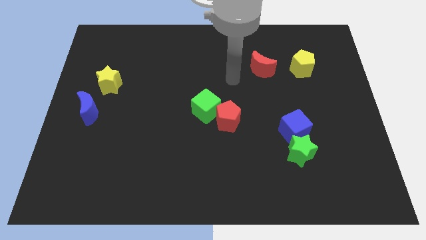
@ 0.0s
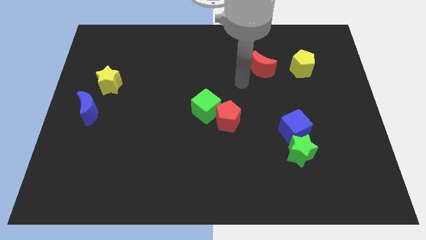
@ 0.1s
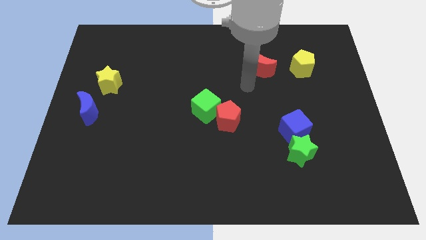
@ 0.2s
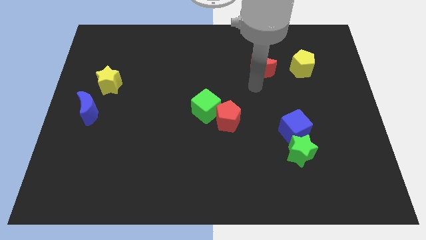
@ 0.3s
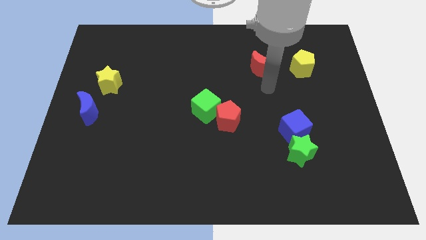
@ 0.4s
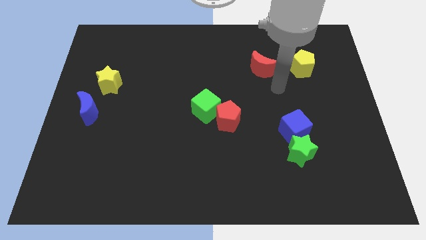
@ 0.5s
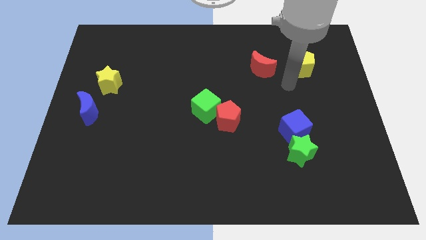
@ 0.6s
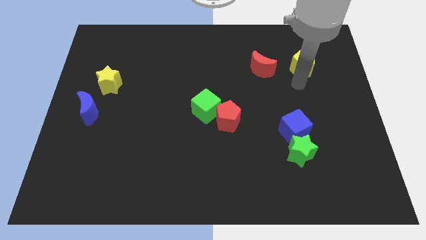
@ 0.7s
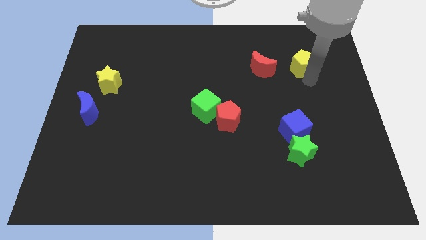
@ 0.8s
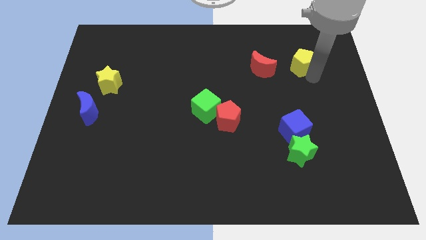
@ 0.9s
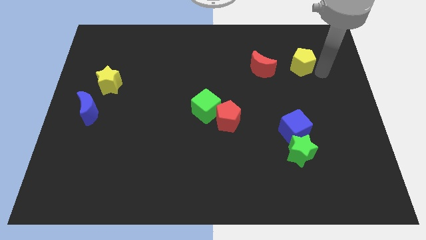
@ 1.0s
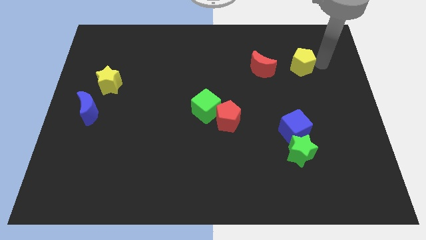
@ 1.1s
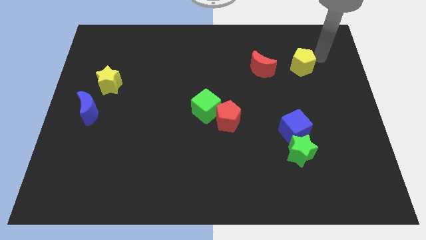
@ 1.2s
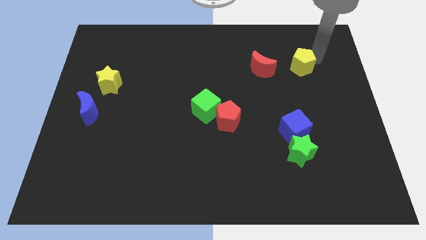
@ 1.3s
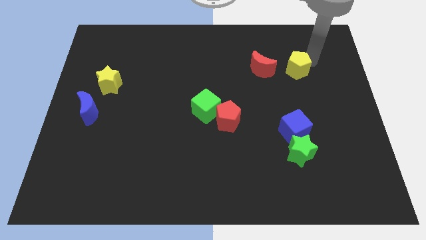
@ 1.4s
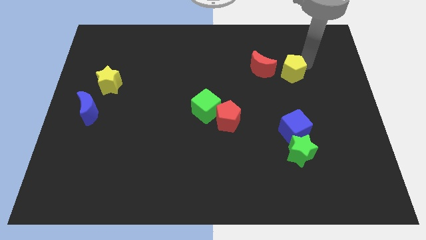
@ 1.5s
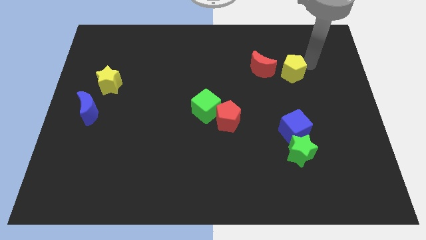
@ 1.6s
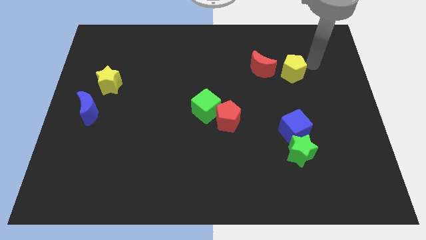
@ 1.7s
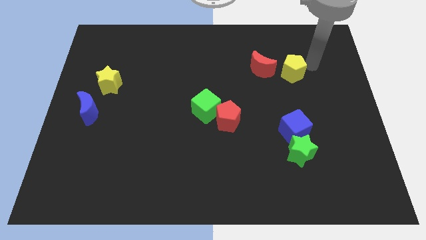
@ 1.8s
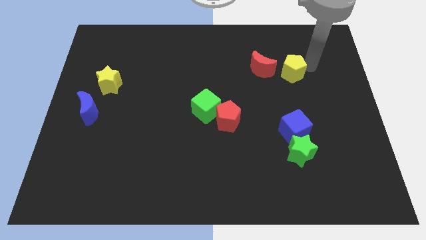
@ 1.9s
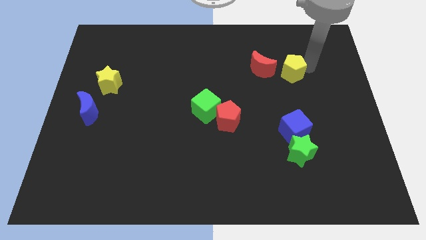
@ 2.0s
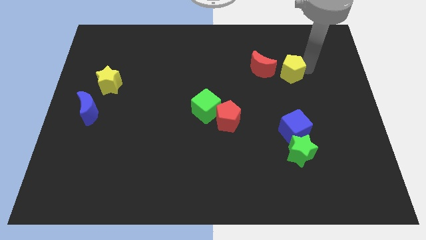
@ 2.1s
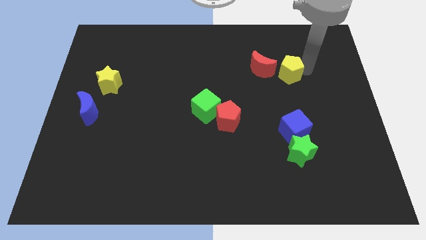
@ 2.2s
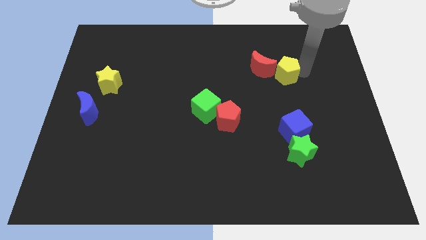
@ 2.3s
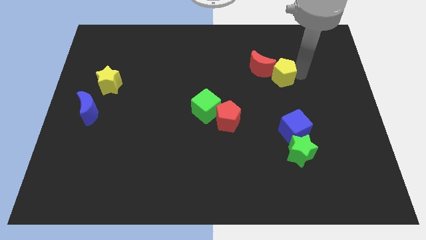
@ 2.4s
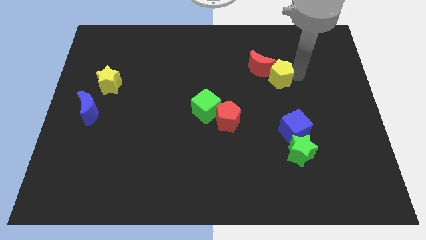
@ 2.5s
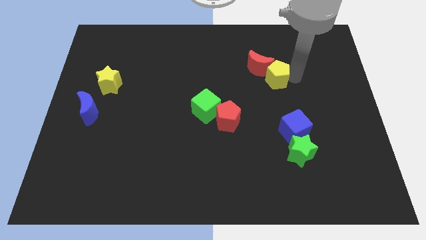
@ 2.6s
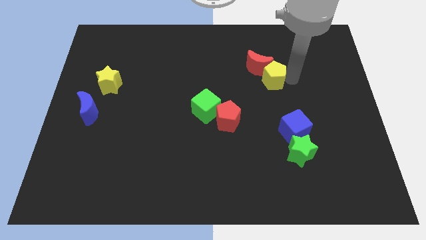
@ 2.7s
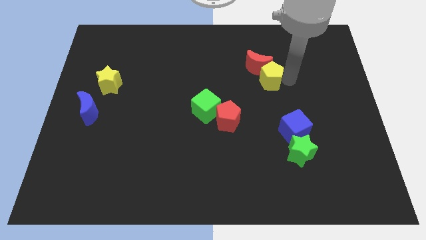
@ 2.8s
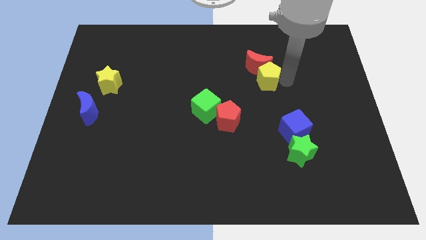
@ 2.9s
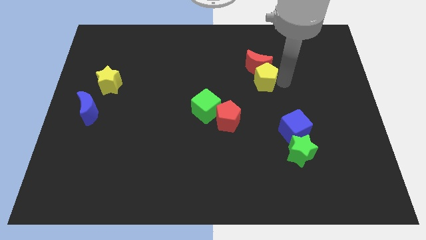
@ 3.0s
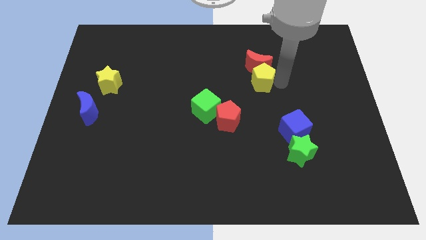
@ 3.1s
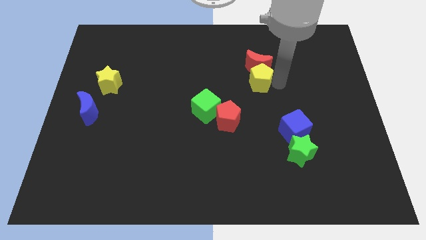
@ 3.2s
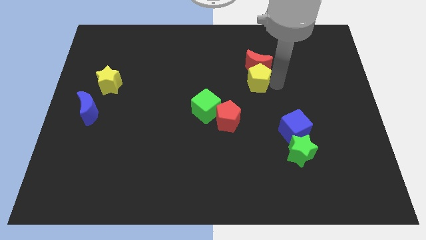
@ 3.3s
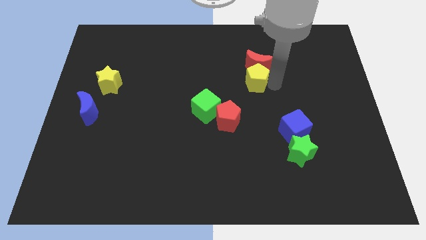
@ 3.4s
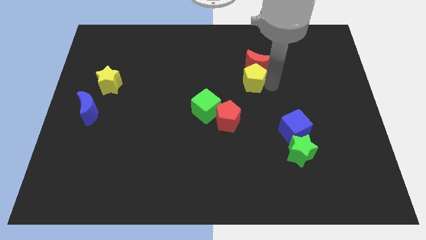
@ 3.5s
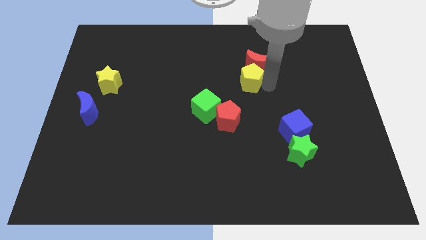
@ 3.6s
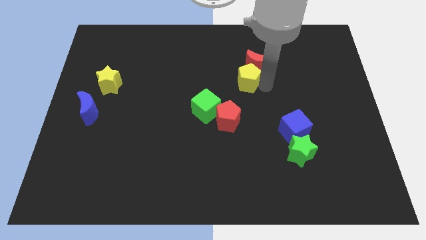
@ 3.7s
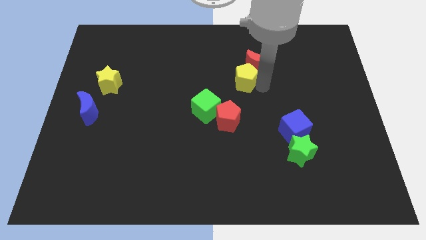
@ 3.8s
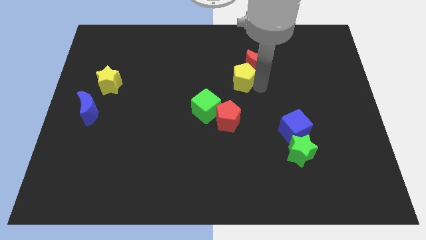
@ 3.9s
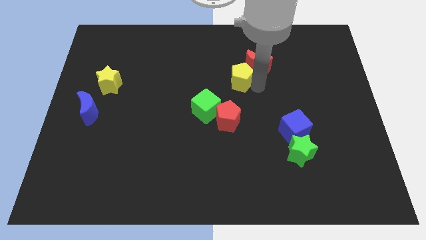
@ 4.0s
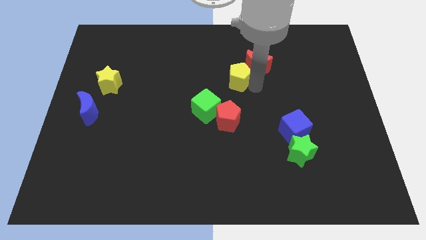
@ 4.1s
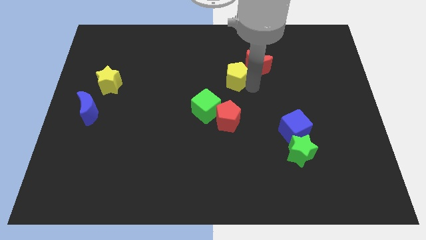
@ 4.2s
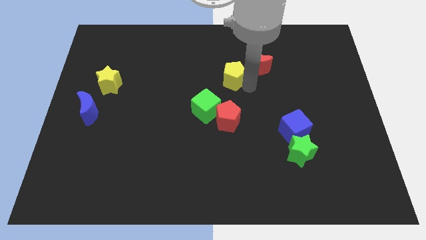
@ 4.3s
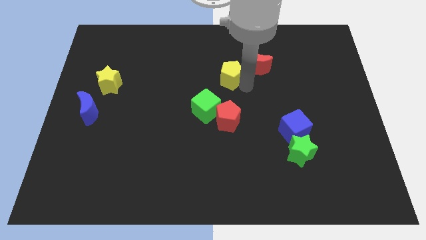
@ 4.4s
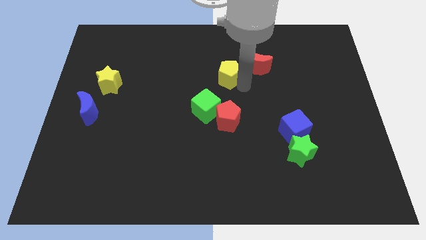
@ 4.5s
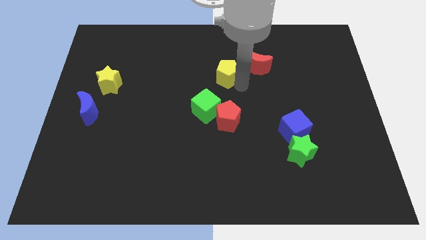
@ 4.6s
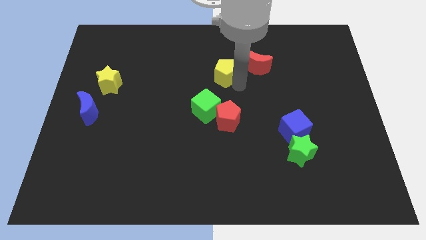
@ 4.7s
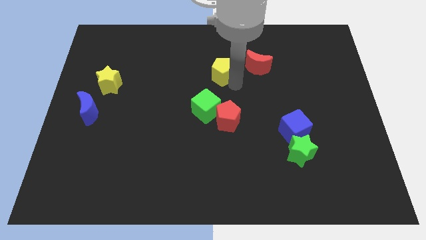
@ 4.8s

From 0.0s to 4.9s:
move the yellow pentagon to the left

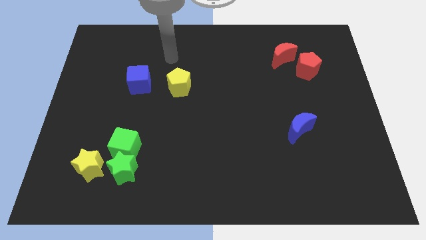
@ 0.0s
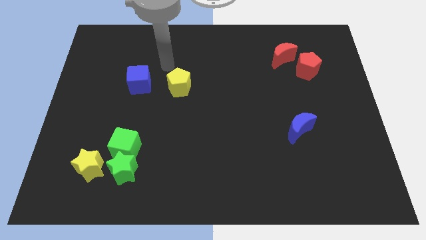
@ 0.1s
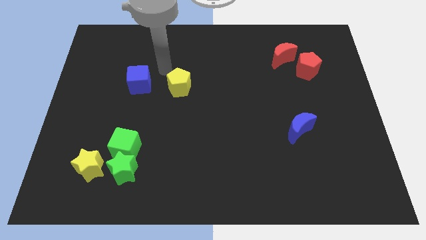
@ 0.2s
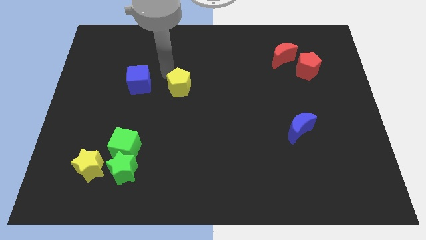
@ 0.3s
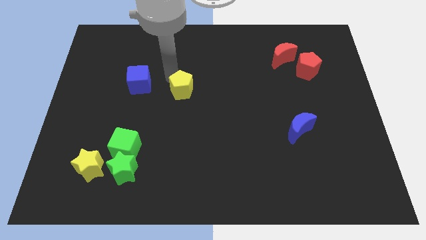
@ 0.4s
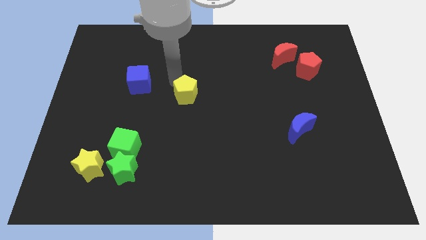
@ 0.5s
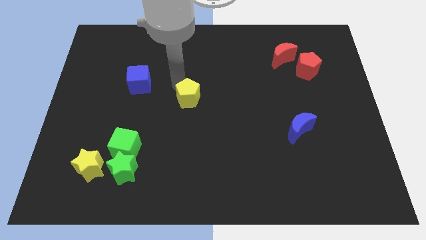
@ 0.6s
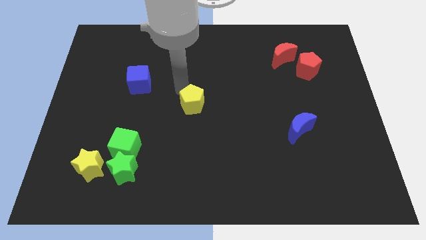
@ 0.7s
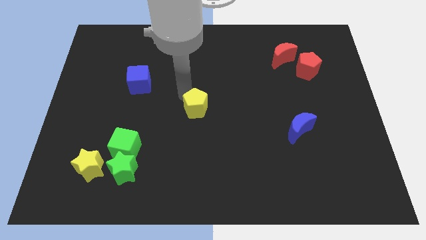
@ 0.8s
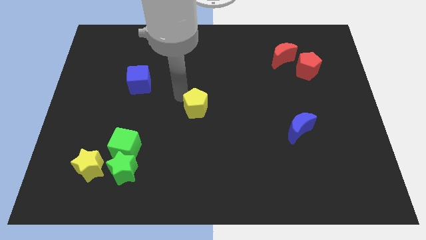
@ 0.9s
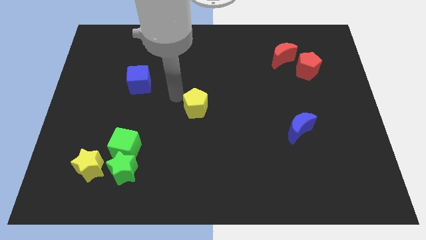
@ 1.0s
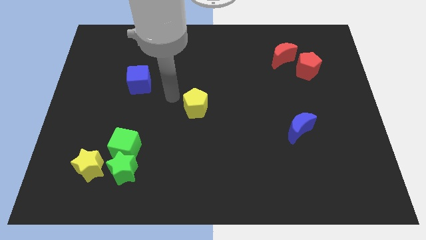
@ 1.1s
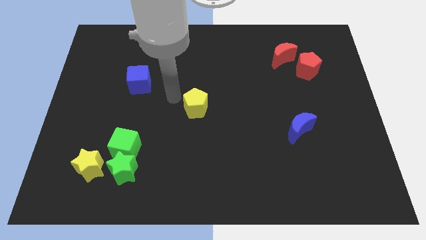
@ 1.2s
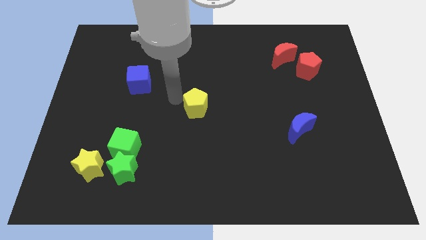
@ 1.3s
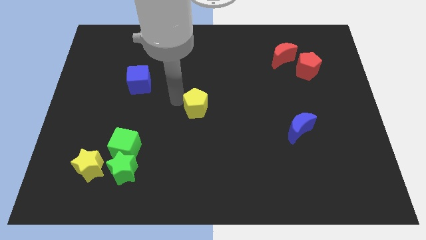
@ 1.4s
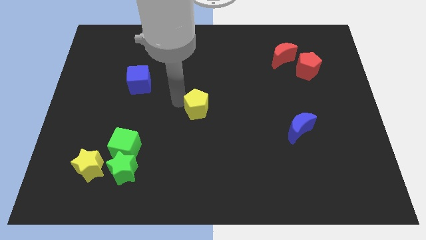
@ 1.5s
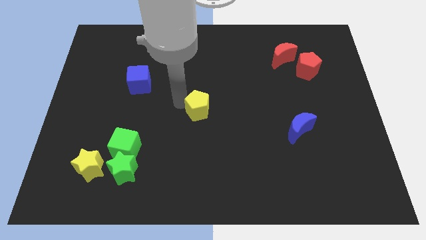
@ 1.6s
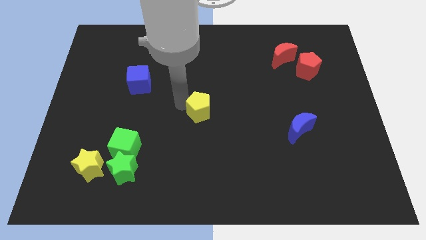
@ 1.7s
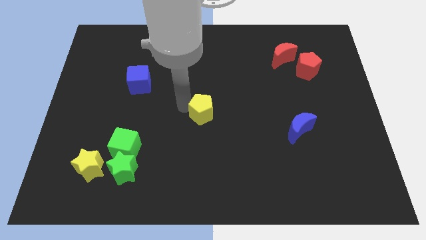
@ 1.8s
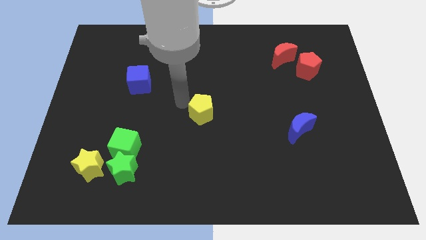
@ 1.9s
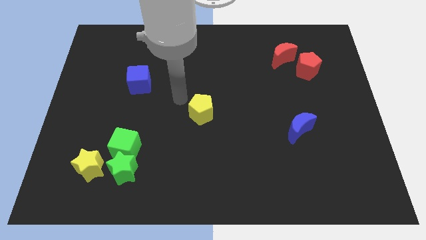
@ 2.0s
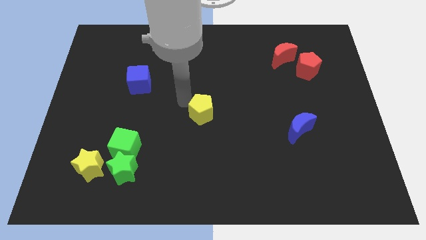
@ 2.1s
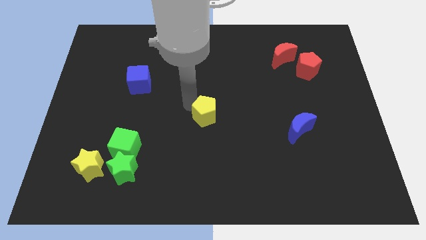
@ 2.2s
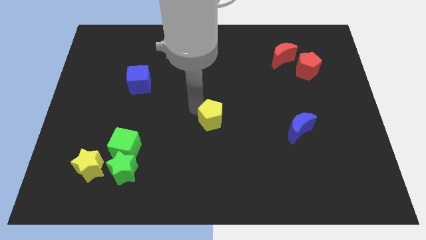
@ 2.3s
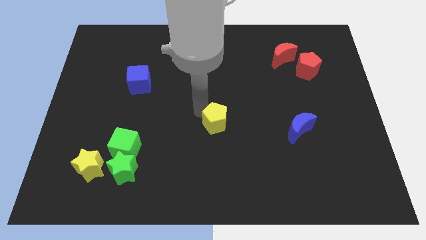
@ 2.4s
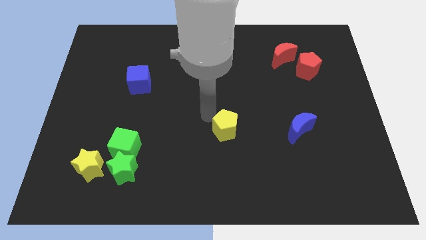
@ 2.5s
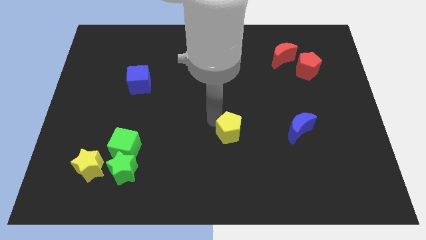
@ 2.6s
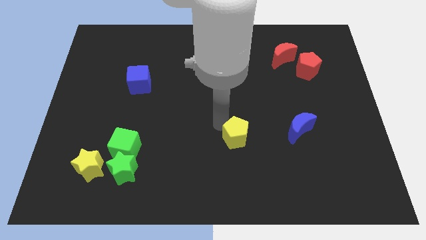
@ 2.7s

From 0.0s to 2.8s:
move the yellow pentagon downwards and then to the right

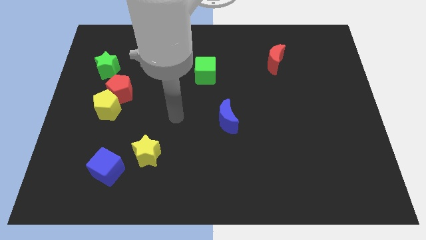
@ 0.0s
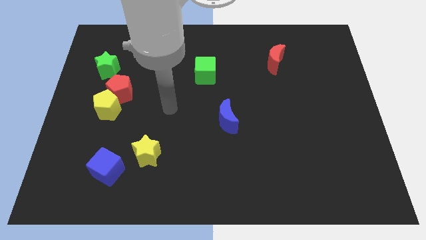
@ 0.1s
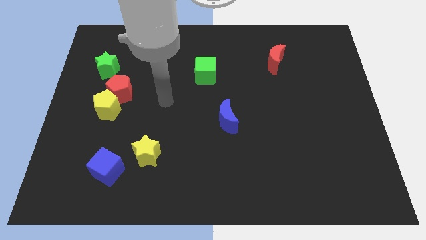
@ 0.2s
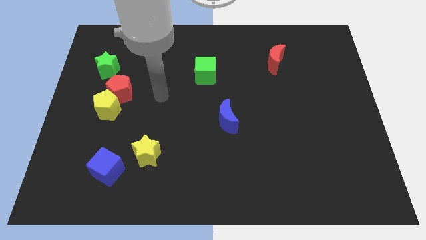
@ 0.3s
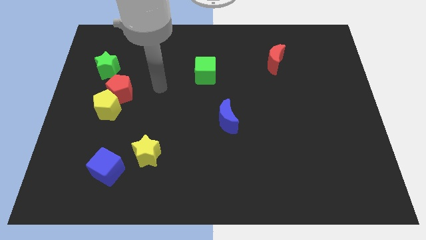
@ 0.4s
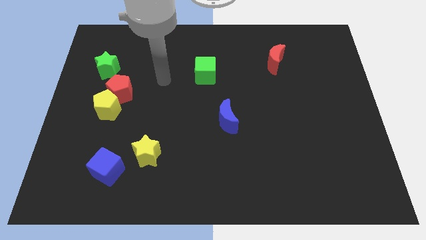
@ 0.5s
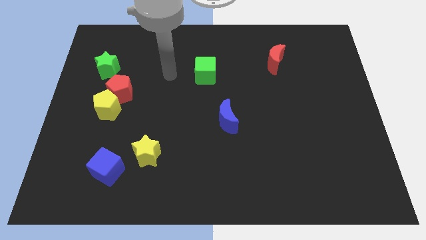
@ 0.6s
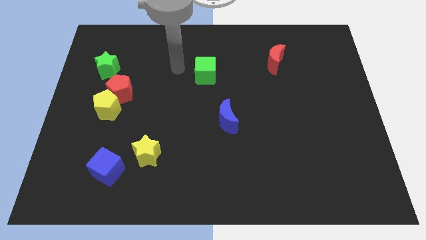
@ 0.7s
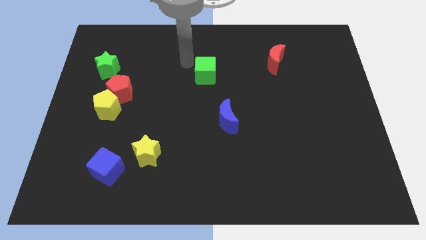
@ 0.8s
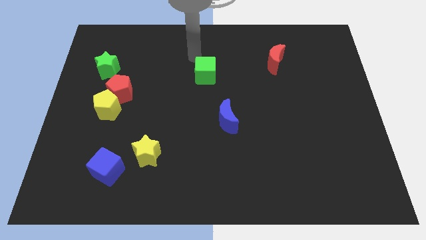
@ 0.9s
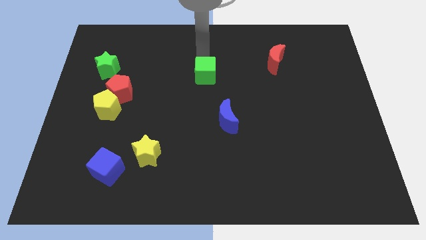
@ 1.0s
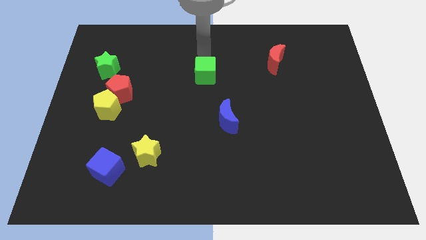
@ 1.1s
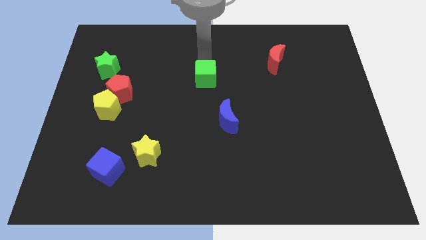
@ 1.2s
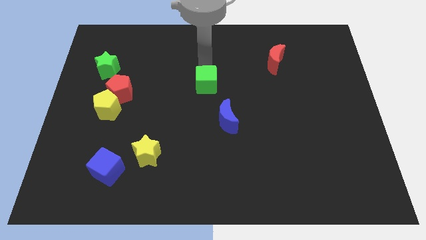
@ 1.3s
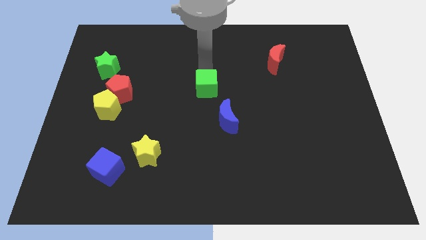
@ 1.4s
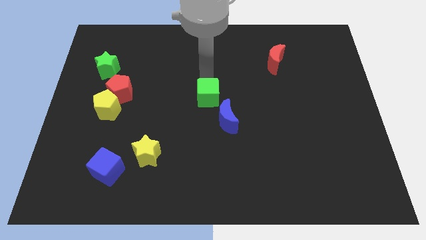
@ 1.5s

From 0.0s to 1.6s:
move the green cube somewhat down
